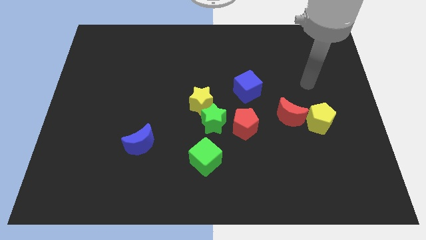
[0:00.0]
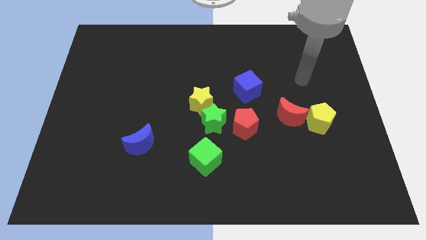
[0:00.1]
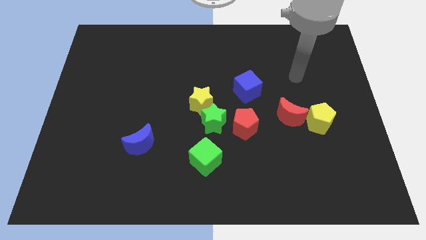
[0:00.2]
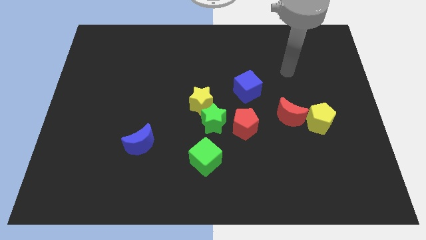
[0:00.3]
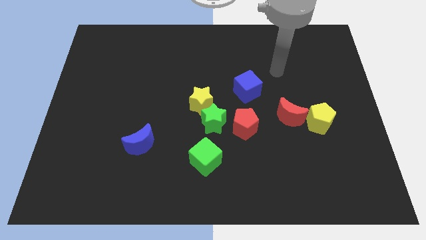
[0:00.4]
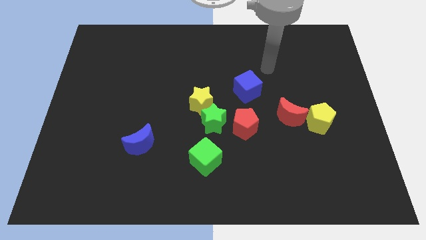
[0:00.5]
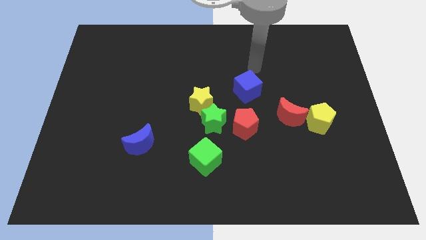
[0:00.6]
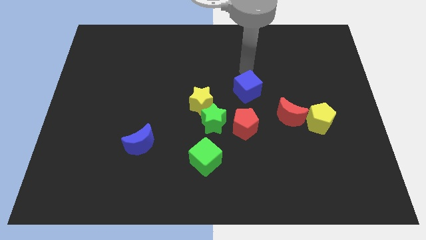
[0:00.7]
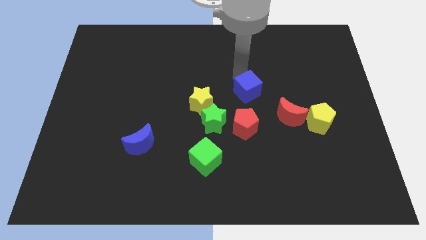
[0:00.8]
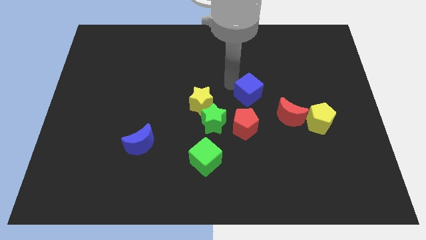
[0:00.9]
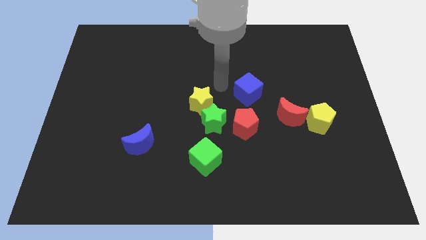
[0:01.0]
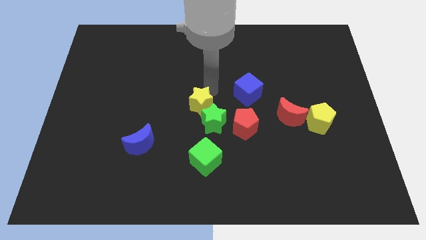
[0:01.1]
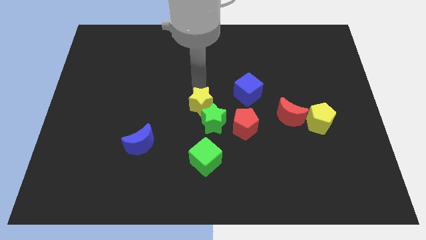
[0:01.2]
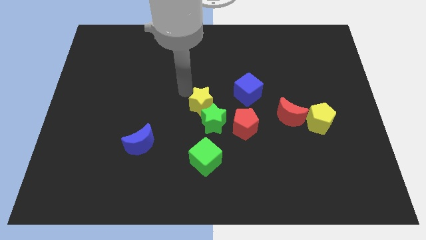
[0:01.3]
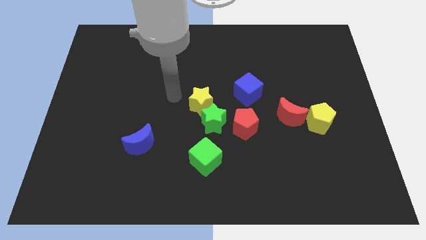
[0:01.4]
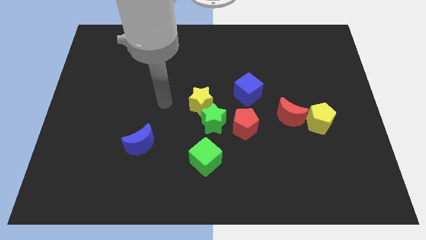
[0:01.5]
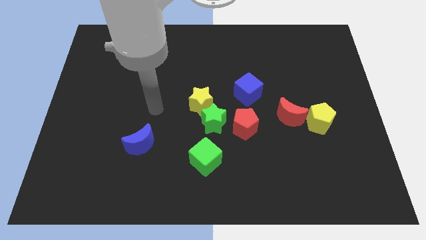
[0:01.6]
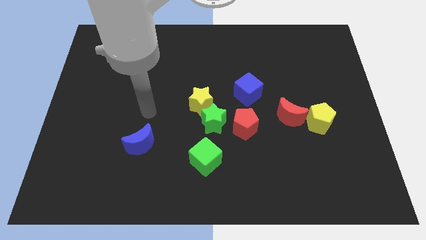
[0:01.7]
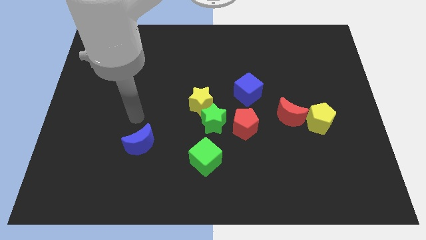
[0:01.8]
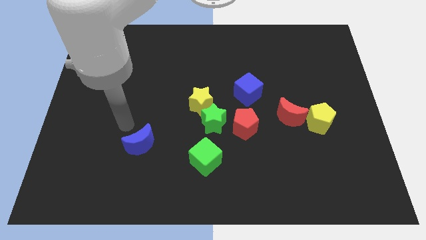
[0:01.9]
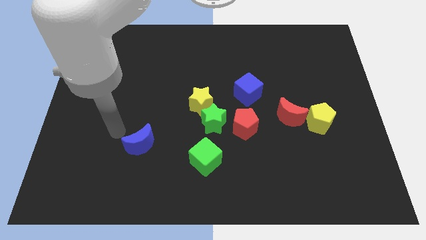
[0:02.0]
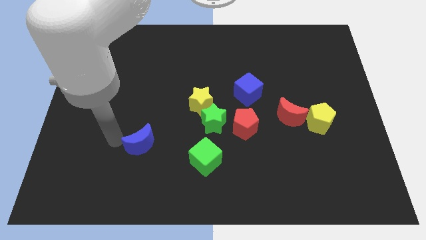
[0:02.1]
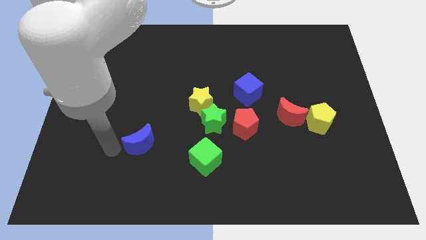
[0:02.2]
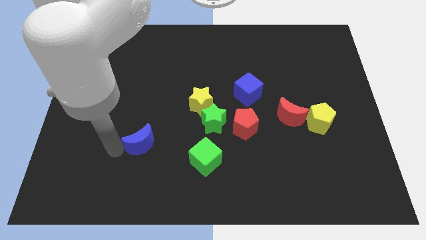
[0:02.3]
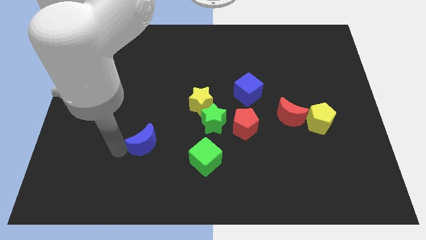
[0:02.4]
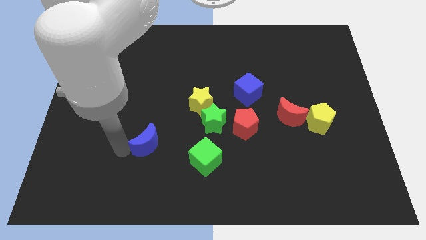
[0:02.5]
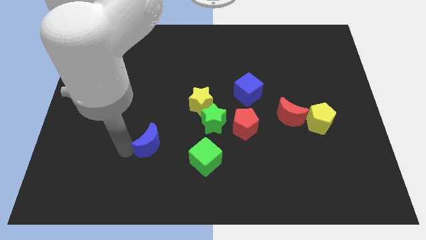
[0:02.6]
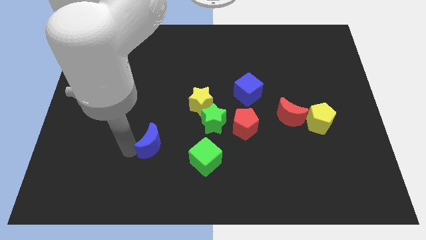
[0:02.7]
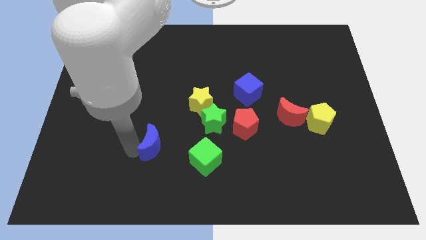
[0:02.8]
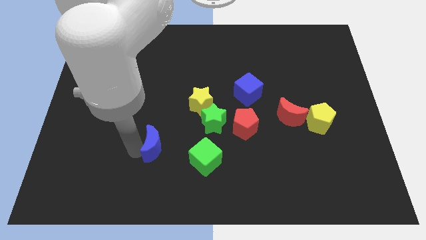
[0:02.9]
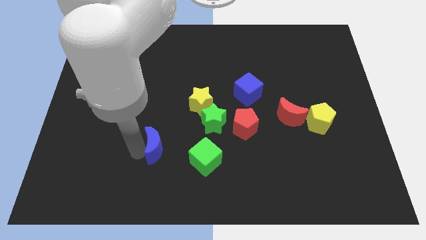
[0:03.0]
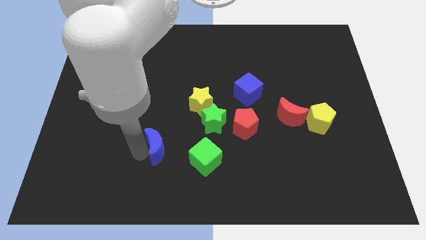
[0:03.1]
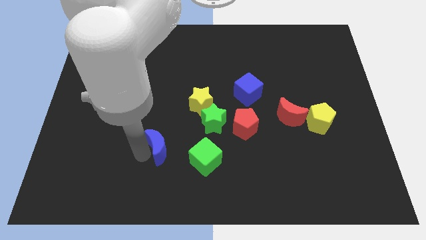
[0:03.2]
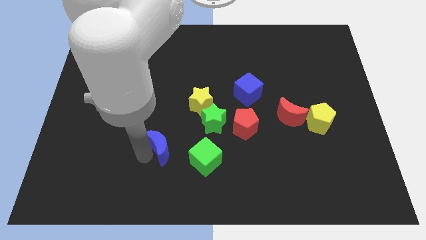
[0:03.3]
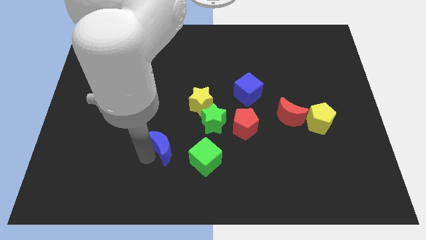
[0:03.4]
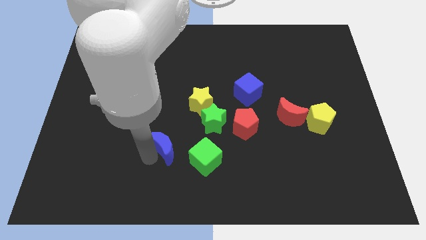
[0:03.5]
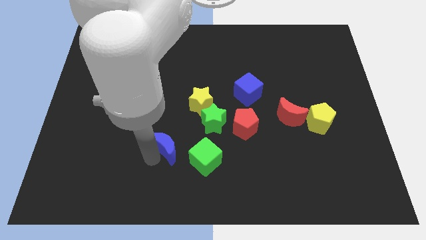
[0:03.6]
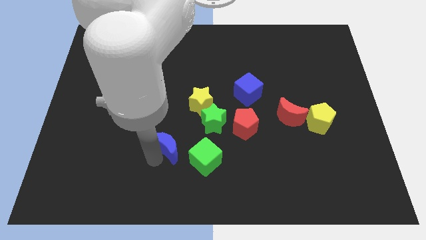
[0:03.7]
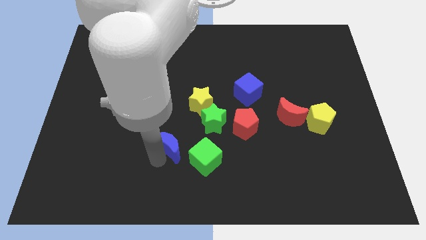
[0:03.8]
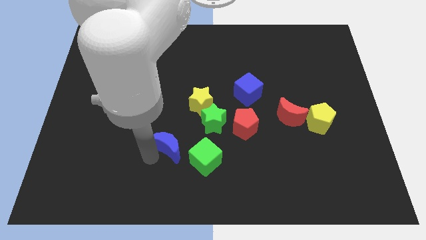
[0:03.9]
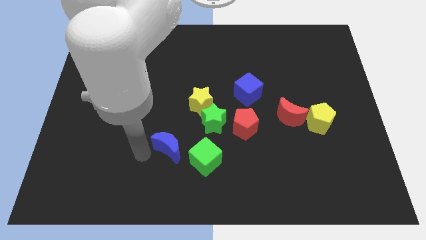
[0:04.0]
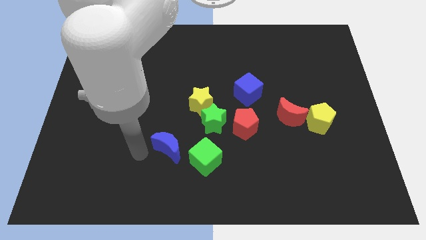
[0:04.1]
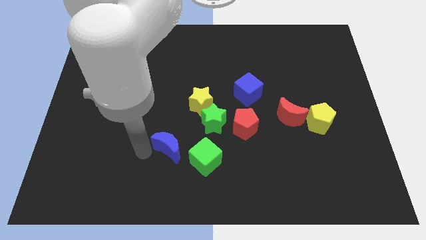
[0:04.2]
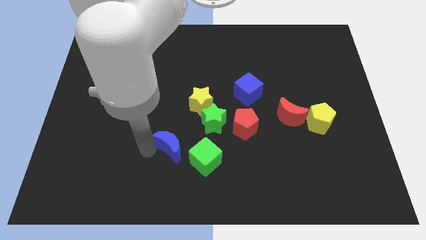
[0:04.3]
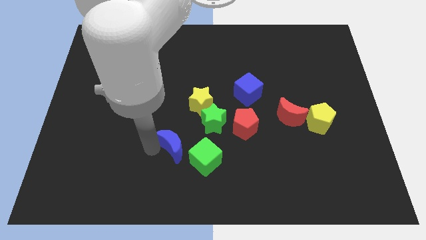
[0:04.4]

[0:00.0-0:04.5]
push the blue moon to the right slightly

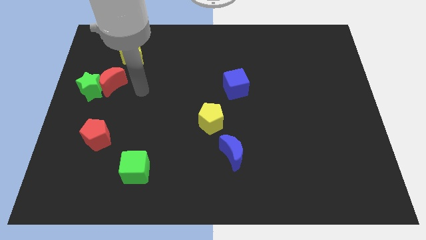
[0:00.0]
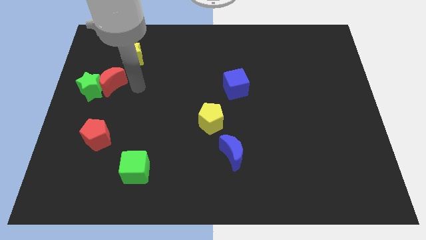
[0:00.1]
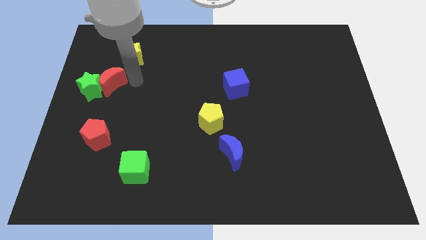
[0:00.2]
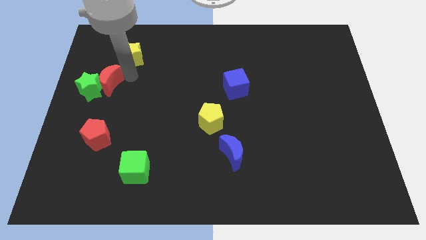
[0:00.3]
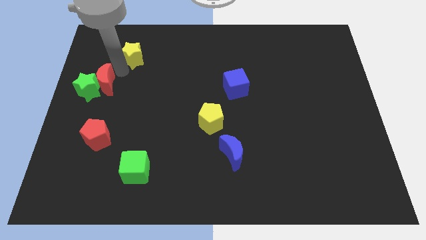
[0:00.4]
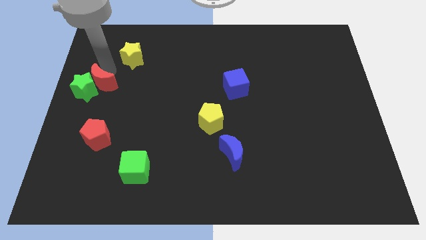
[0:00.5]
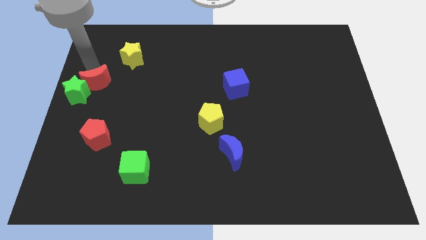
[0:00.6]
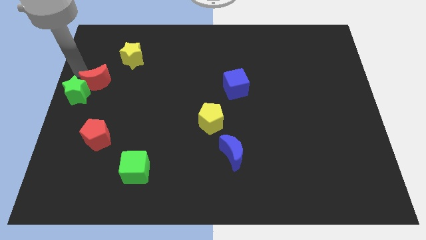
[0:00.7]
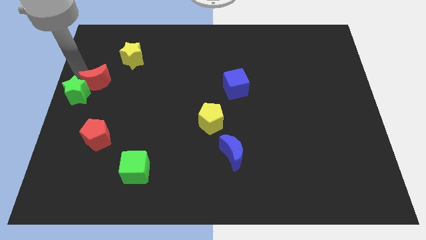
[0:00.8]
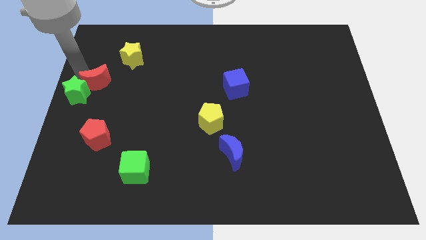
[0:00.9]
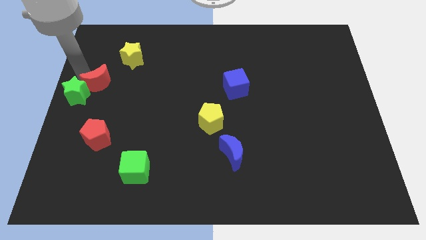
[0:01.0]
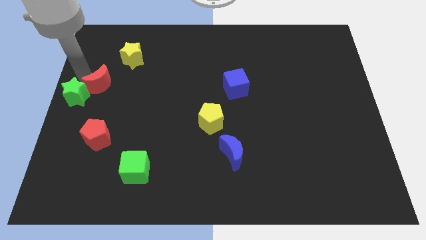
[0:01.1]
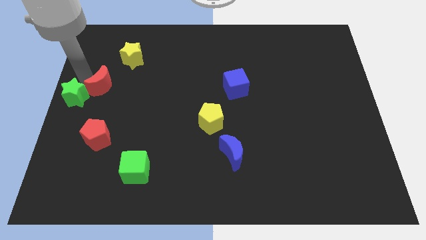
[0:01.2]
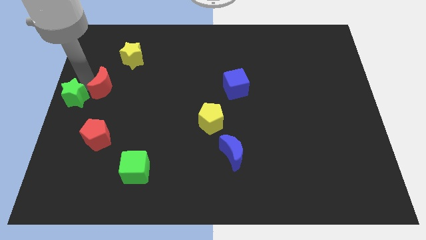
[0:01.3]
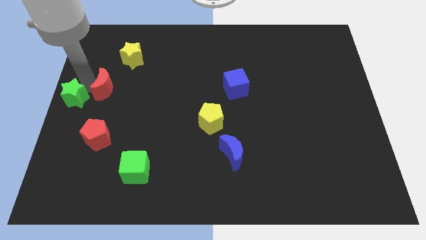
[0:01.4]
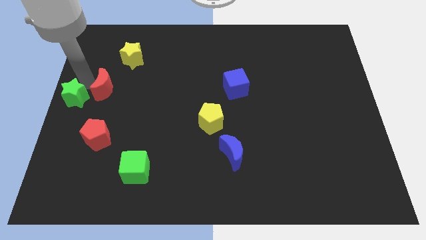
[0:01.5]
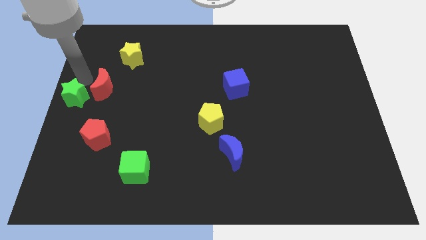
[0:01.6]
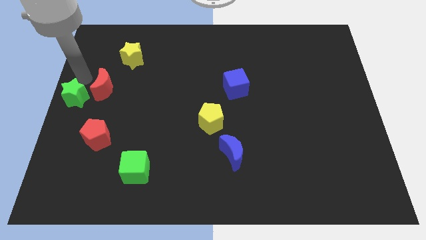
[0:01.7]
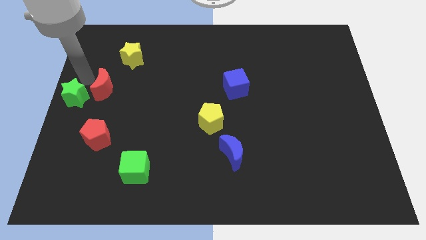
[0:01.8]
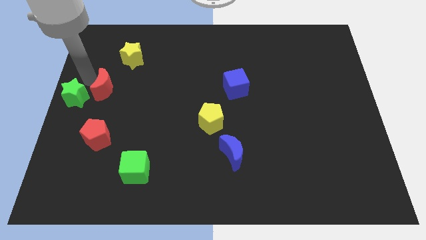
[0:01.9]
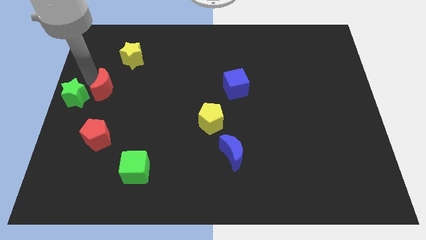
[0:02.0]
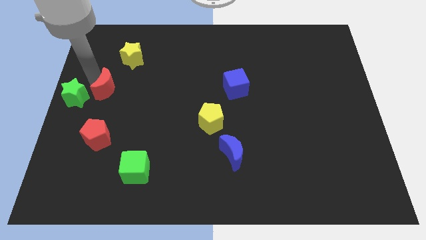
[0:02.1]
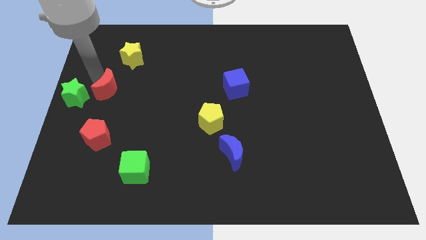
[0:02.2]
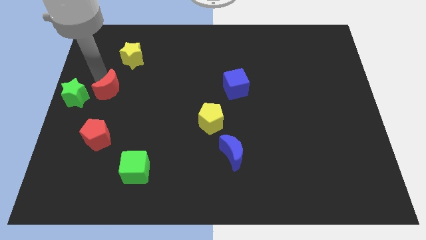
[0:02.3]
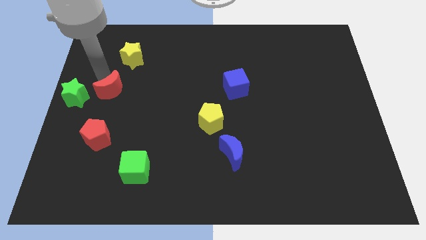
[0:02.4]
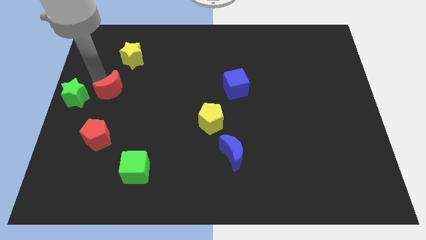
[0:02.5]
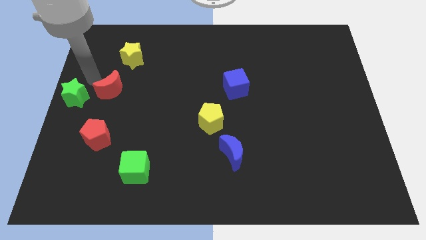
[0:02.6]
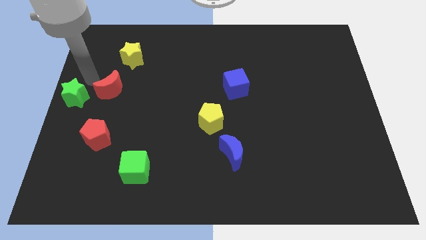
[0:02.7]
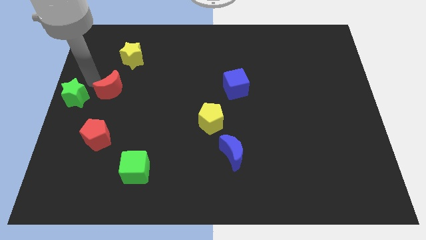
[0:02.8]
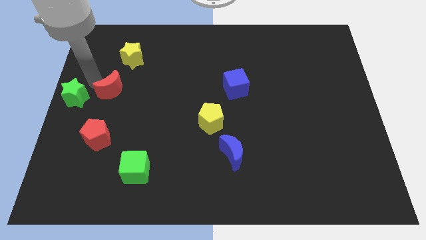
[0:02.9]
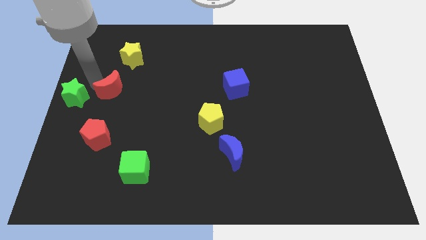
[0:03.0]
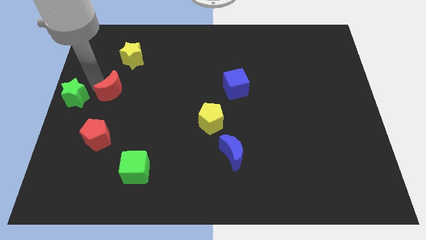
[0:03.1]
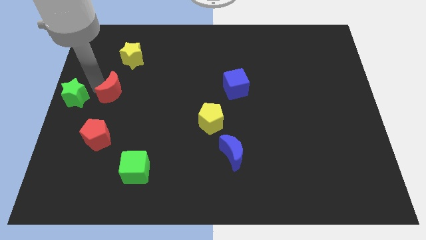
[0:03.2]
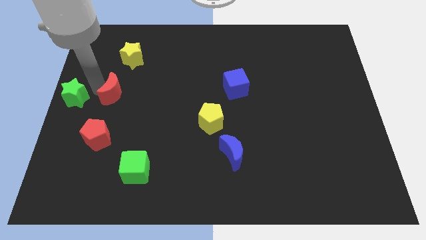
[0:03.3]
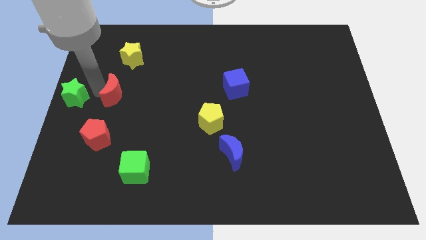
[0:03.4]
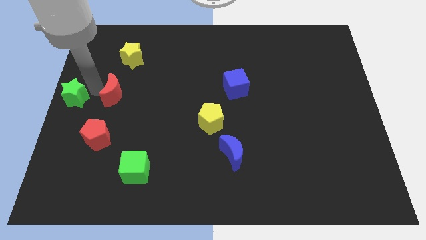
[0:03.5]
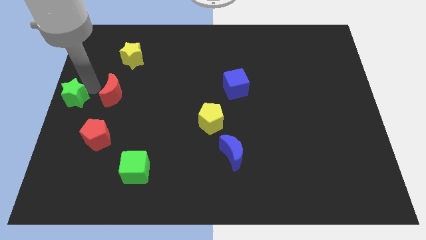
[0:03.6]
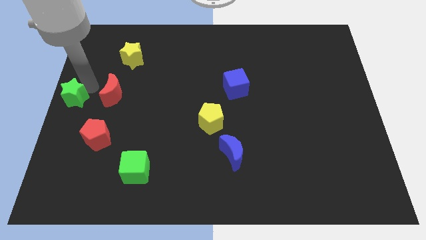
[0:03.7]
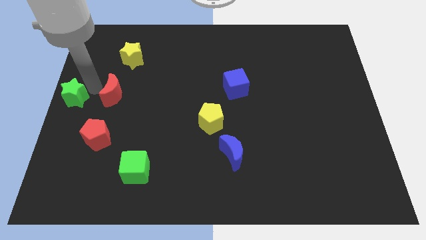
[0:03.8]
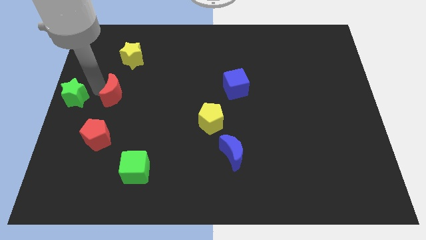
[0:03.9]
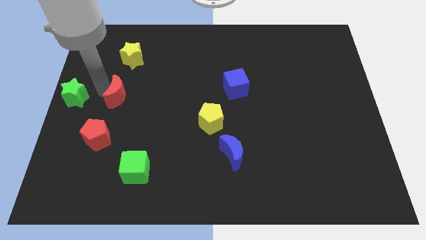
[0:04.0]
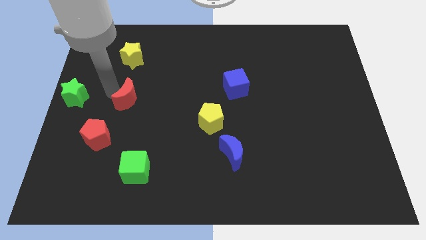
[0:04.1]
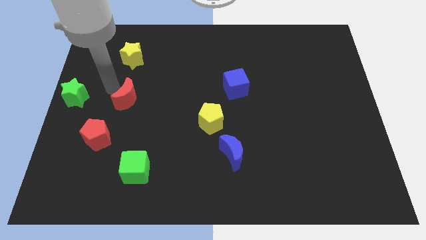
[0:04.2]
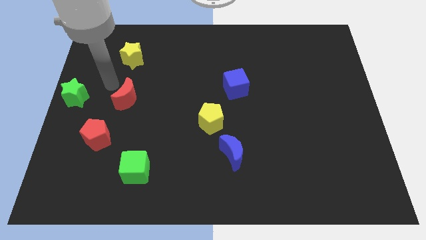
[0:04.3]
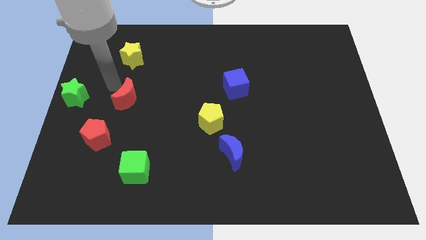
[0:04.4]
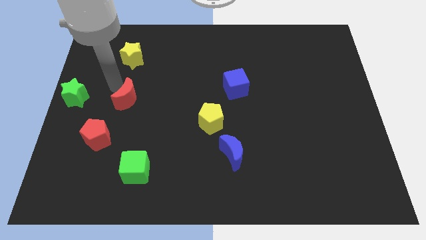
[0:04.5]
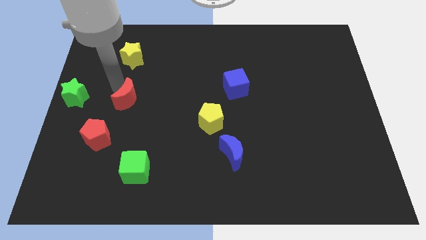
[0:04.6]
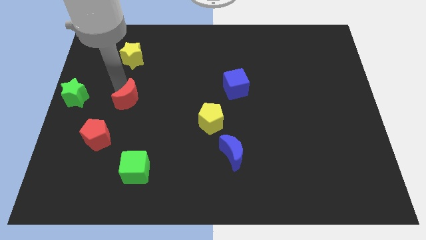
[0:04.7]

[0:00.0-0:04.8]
push the red moon down and then right somewhat
